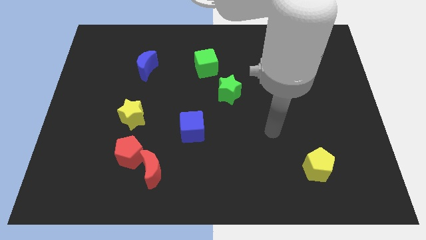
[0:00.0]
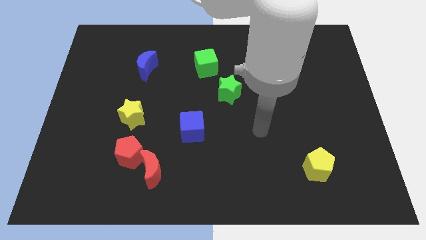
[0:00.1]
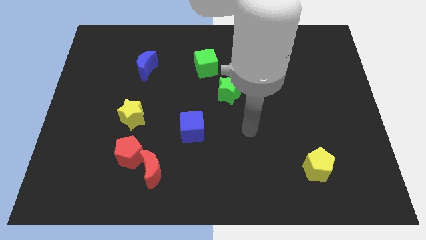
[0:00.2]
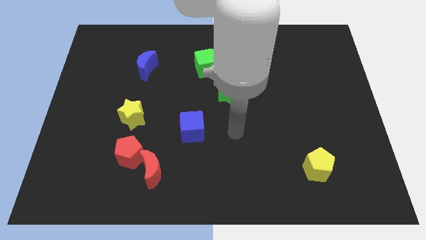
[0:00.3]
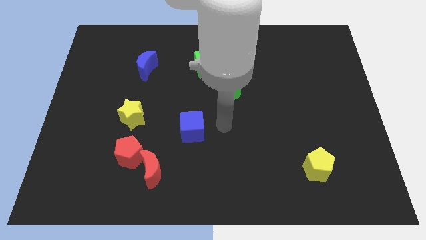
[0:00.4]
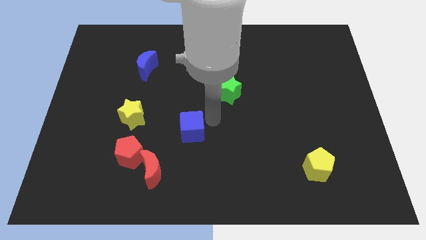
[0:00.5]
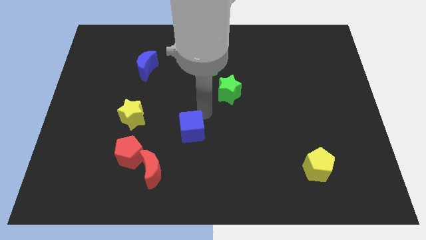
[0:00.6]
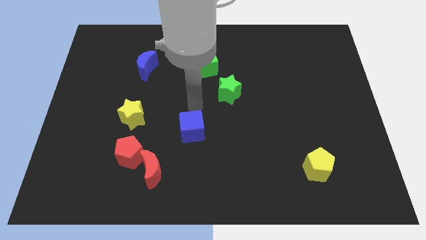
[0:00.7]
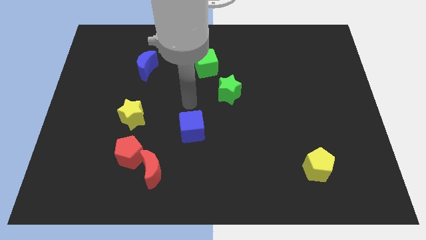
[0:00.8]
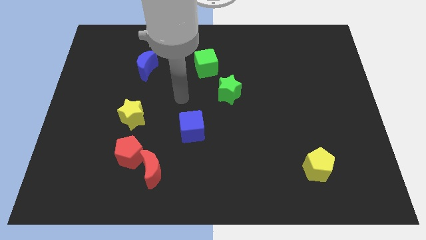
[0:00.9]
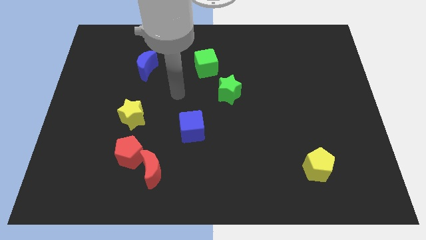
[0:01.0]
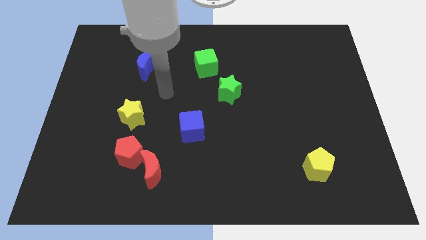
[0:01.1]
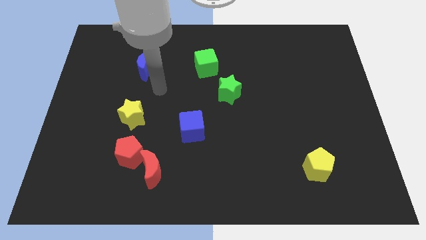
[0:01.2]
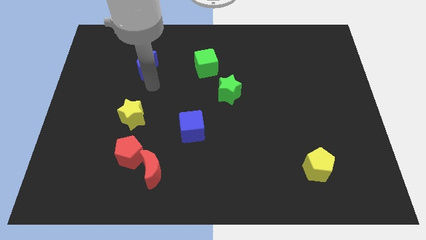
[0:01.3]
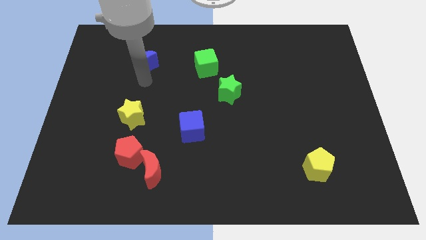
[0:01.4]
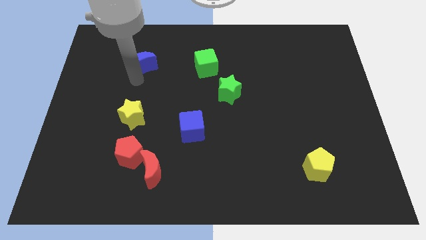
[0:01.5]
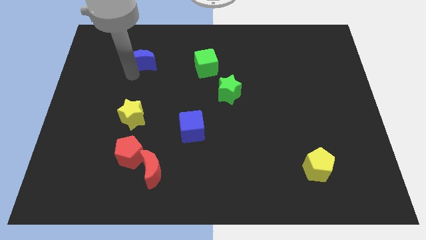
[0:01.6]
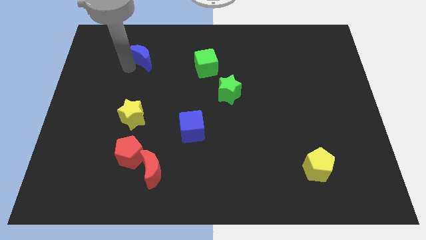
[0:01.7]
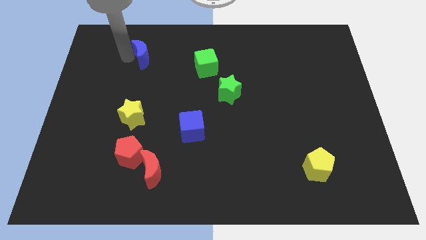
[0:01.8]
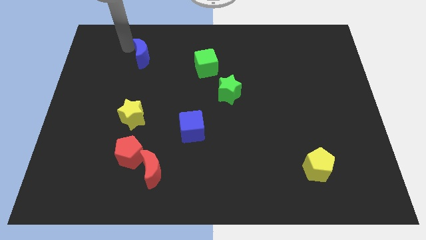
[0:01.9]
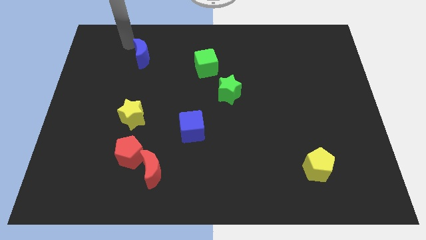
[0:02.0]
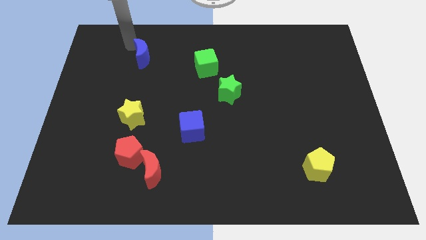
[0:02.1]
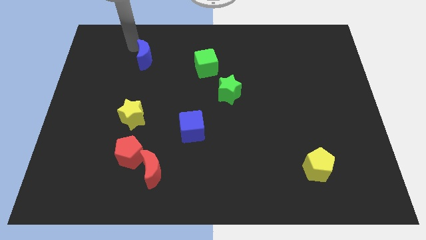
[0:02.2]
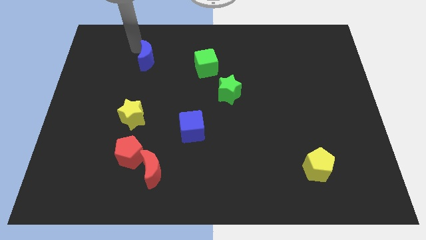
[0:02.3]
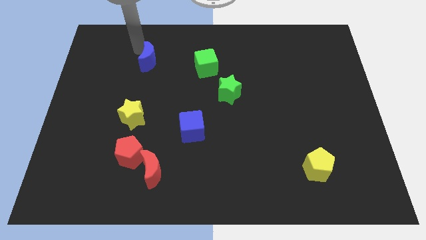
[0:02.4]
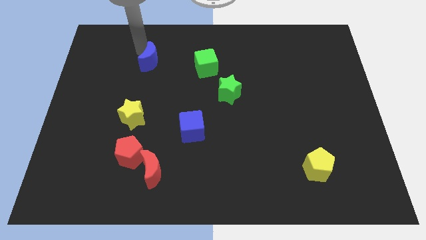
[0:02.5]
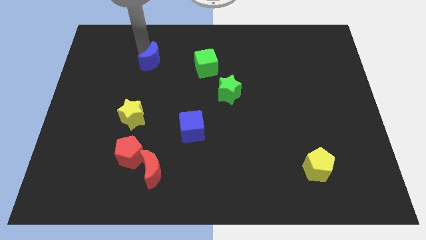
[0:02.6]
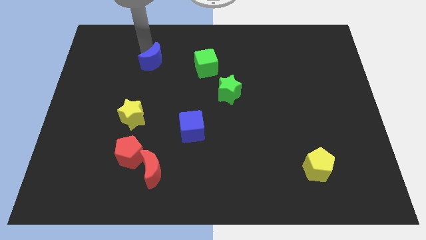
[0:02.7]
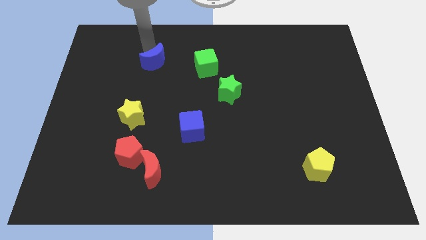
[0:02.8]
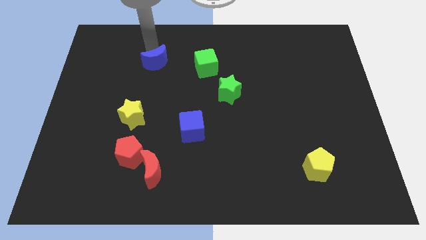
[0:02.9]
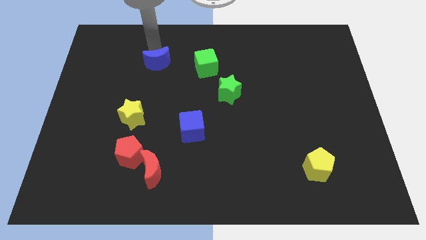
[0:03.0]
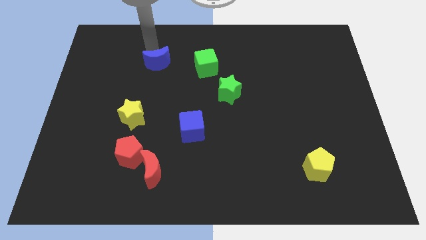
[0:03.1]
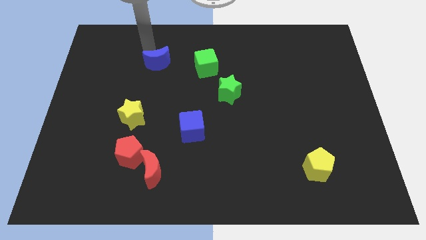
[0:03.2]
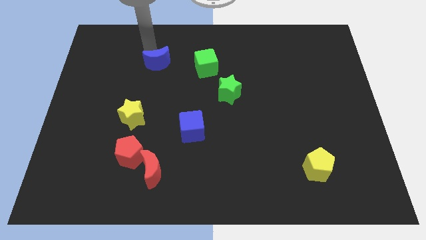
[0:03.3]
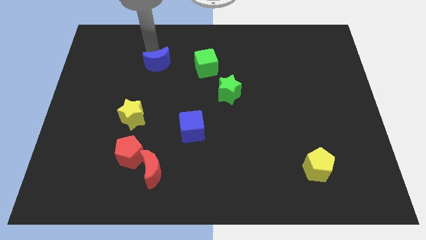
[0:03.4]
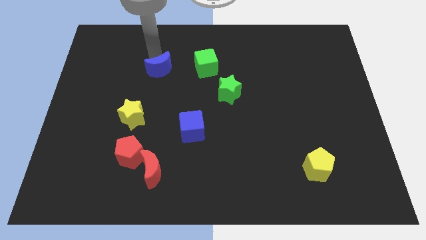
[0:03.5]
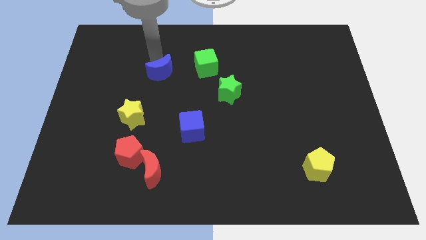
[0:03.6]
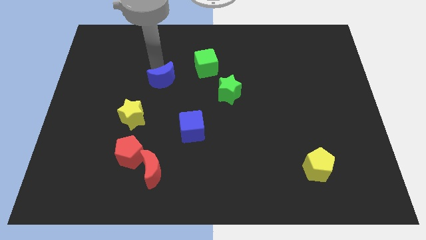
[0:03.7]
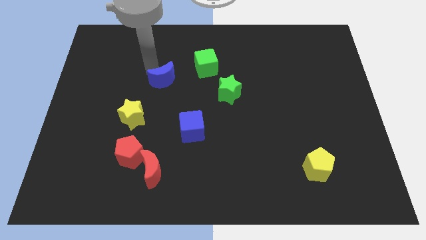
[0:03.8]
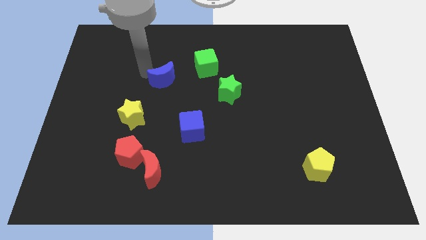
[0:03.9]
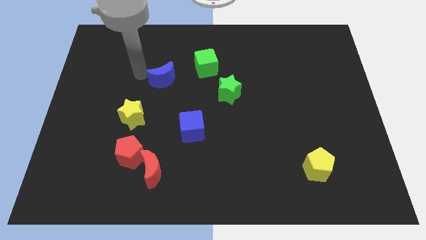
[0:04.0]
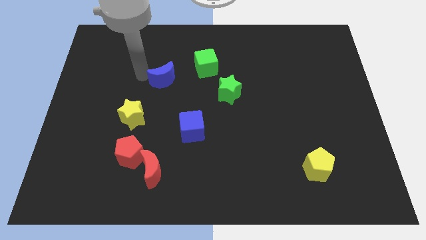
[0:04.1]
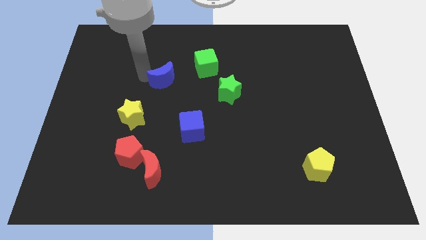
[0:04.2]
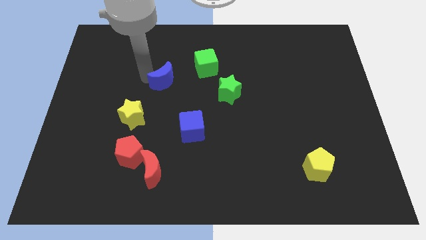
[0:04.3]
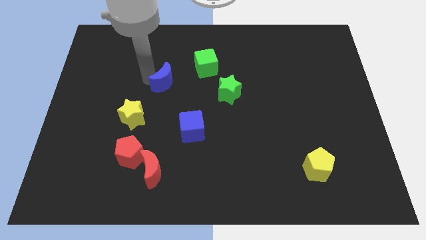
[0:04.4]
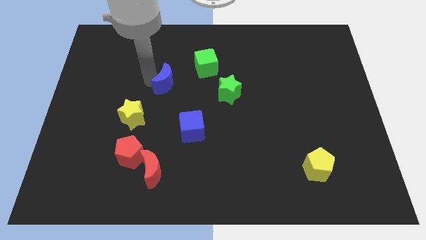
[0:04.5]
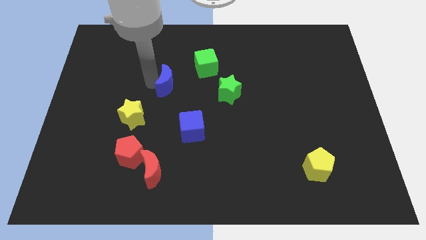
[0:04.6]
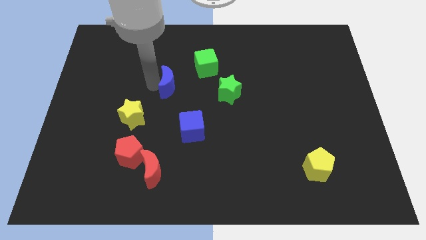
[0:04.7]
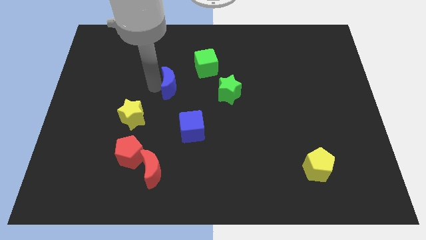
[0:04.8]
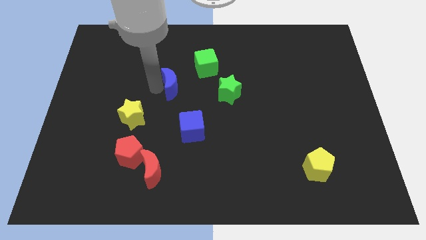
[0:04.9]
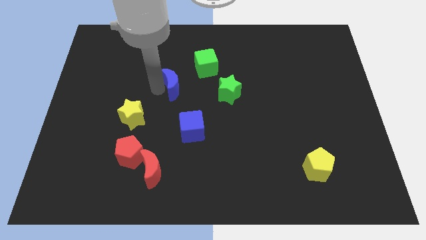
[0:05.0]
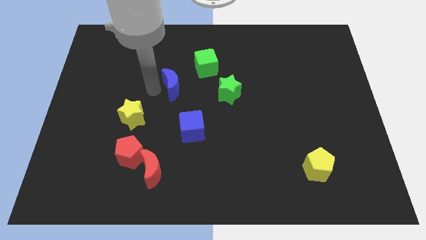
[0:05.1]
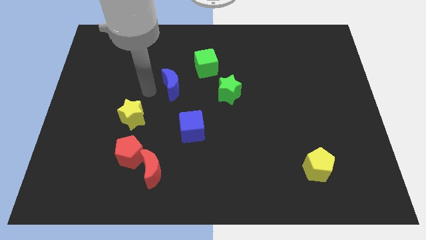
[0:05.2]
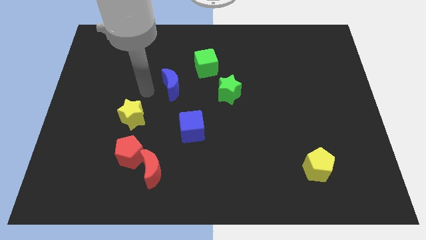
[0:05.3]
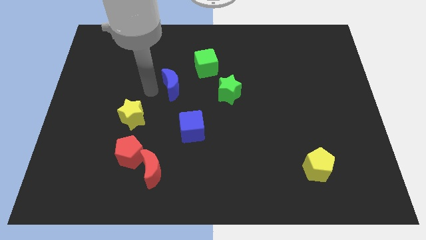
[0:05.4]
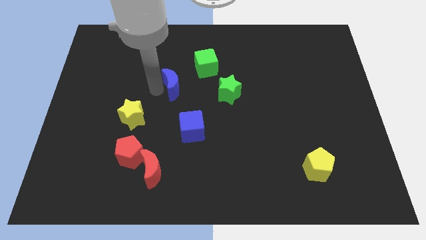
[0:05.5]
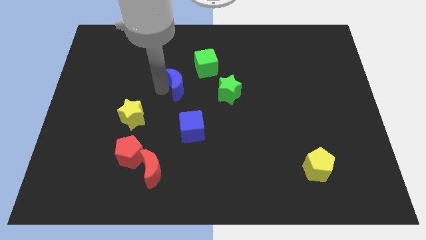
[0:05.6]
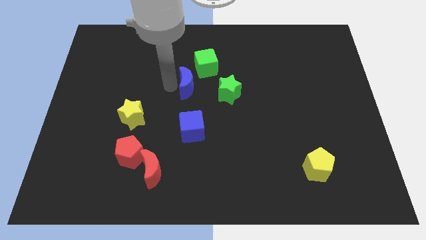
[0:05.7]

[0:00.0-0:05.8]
slide the blue moon to the bottom of the green cube

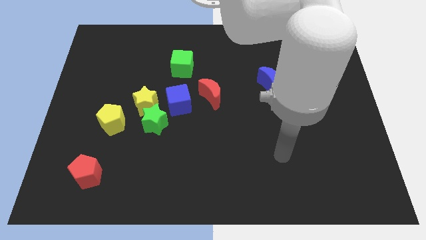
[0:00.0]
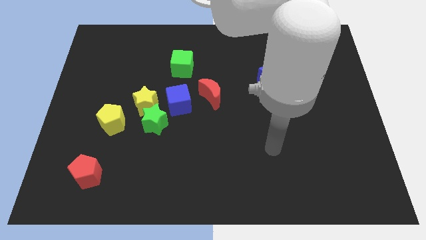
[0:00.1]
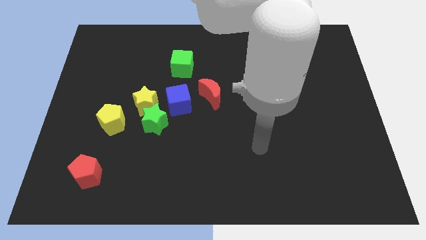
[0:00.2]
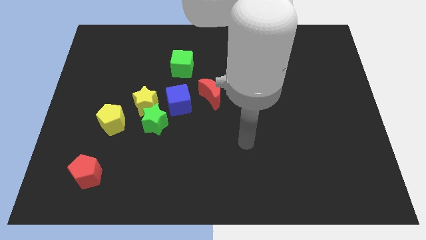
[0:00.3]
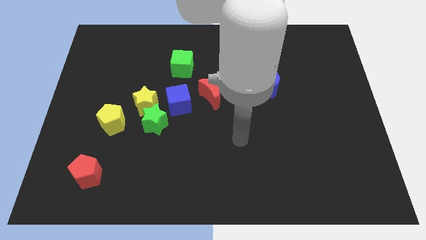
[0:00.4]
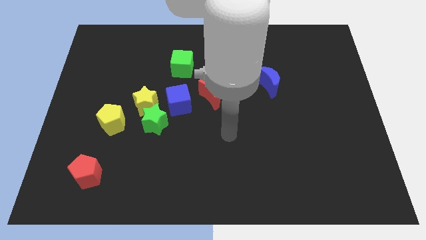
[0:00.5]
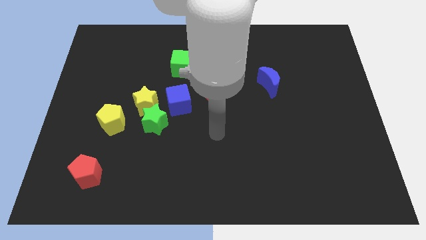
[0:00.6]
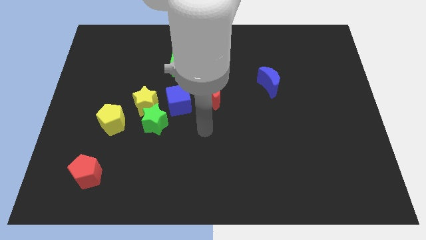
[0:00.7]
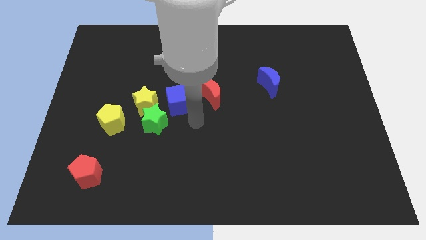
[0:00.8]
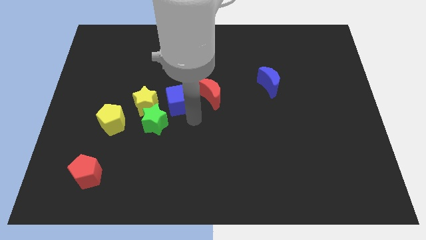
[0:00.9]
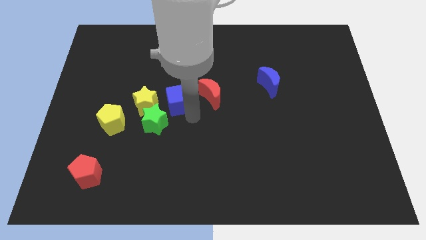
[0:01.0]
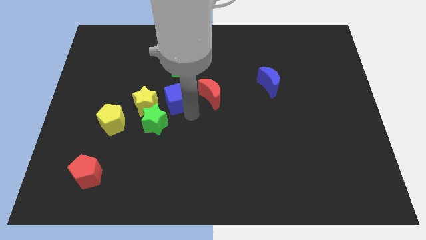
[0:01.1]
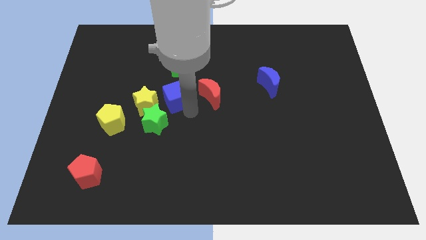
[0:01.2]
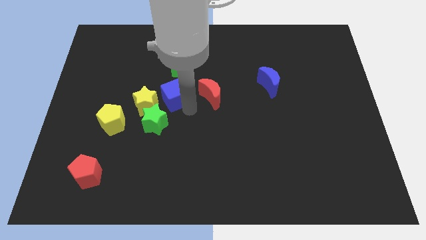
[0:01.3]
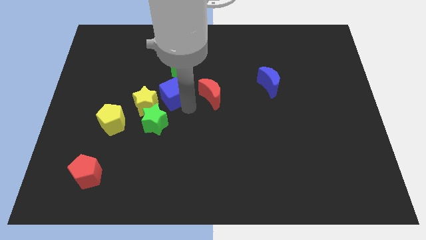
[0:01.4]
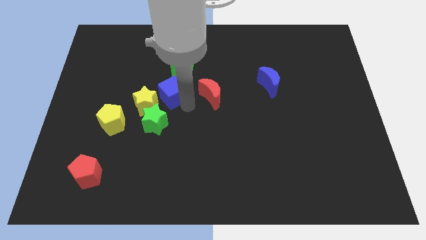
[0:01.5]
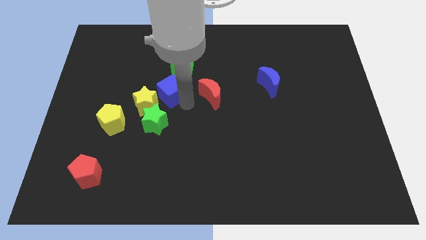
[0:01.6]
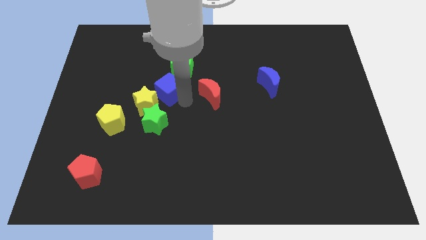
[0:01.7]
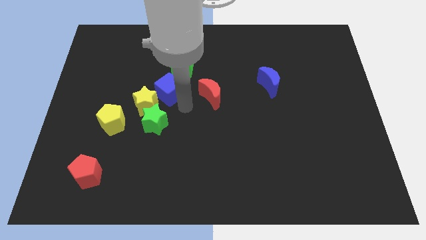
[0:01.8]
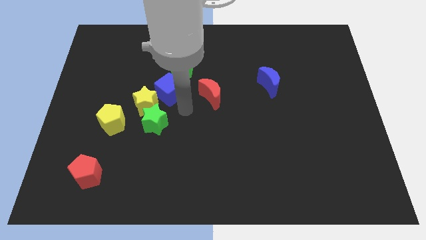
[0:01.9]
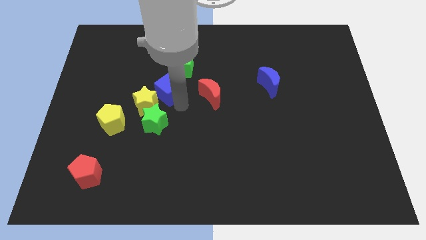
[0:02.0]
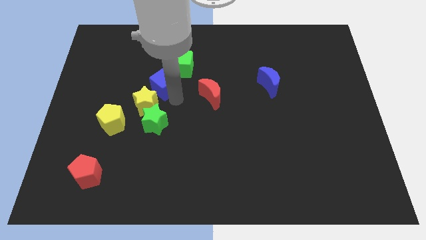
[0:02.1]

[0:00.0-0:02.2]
put the blue cube to the top side of the yellow star

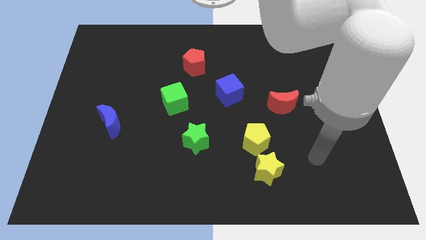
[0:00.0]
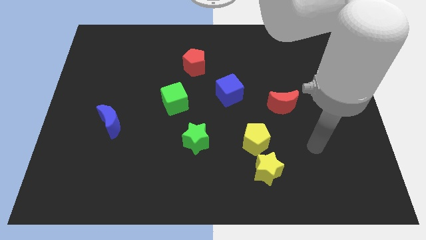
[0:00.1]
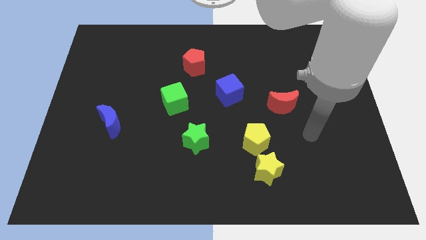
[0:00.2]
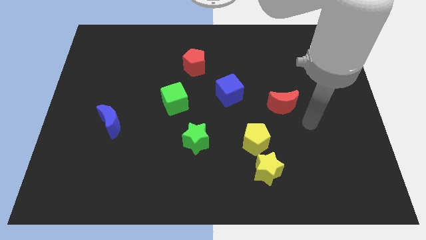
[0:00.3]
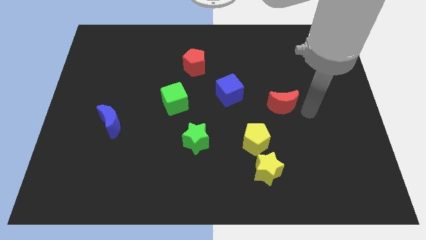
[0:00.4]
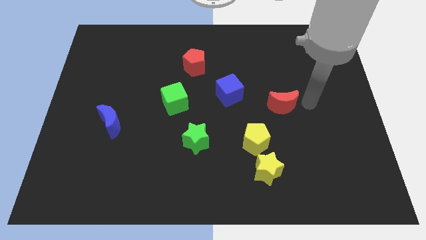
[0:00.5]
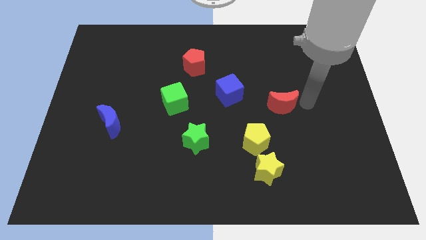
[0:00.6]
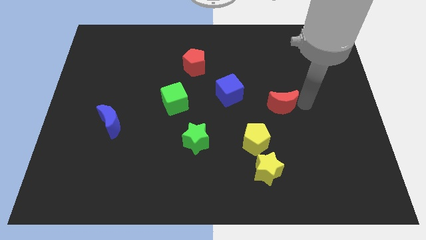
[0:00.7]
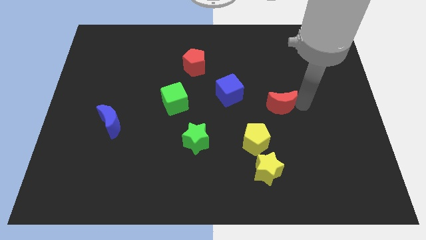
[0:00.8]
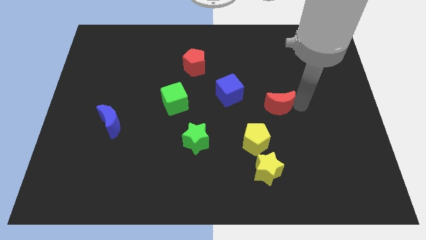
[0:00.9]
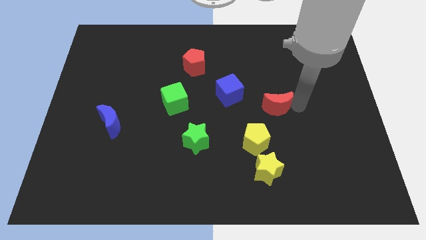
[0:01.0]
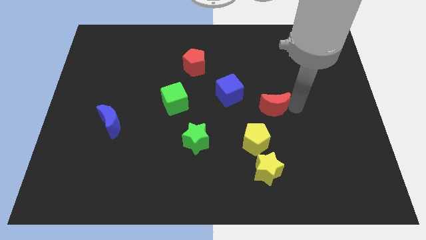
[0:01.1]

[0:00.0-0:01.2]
put the red moon diagonally down and to the right of the blue cube
